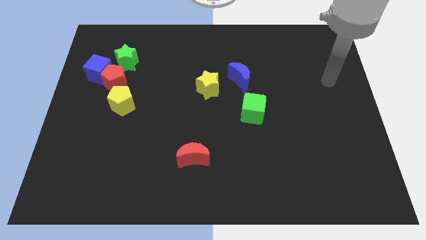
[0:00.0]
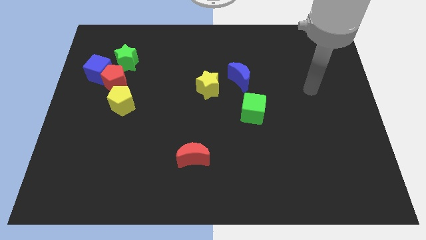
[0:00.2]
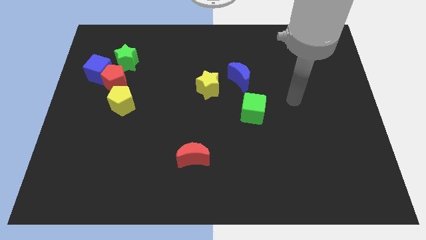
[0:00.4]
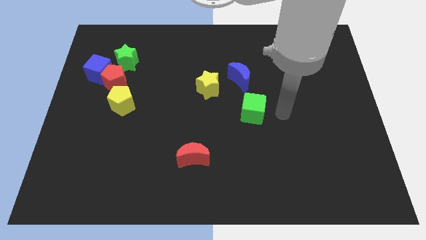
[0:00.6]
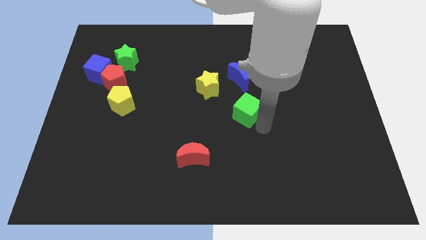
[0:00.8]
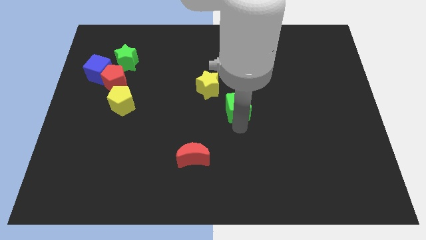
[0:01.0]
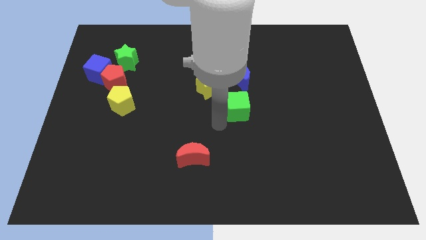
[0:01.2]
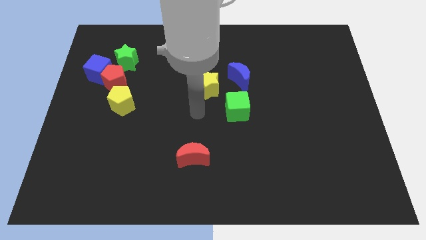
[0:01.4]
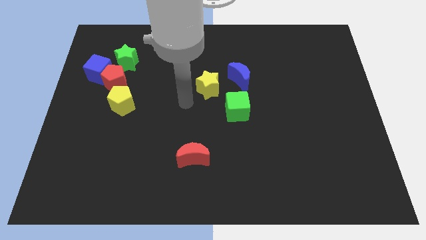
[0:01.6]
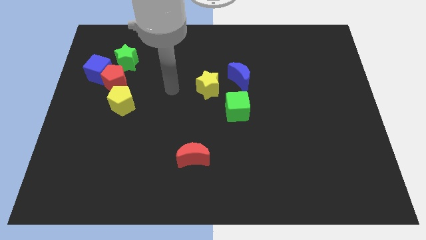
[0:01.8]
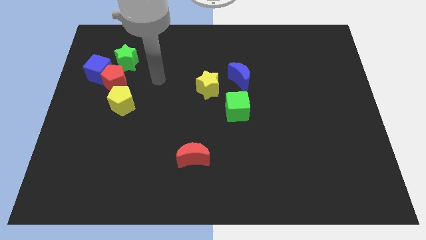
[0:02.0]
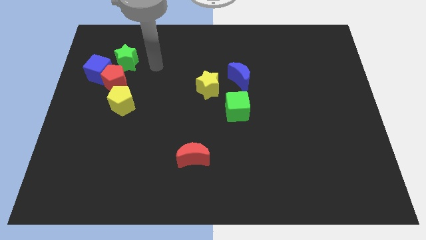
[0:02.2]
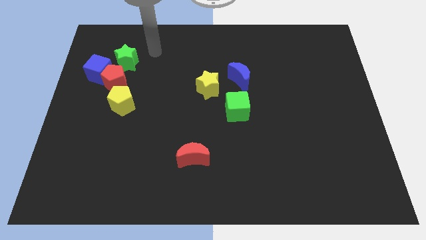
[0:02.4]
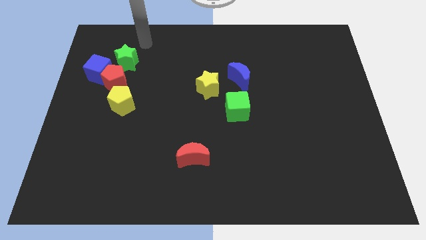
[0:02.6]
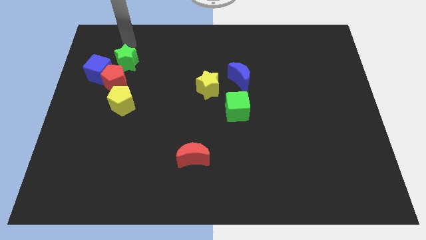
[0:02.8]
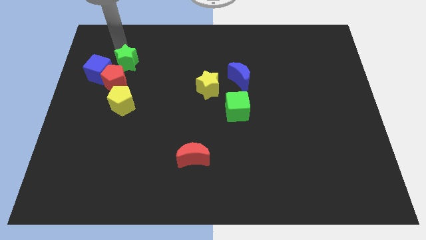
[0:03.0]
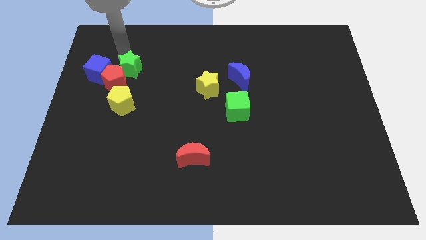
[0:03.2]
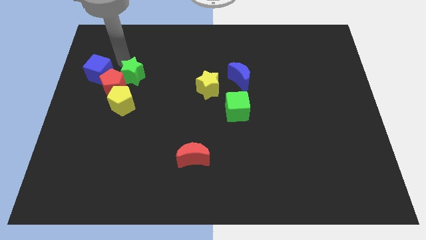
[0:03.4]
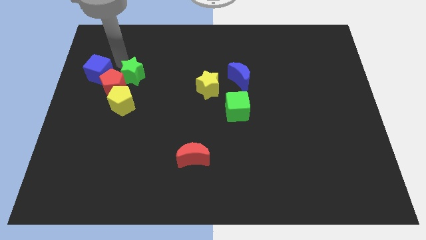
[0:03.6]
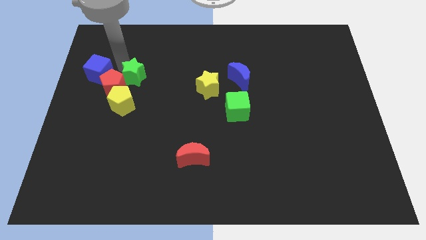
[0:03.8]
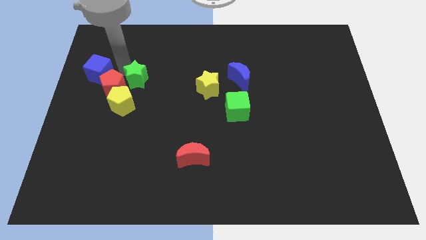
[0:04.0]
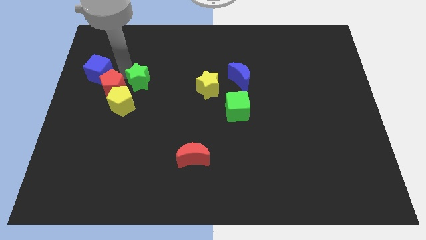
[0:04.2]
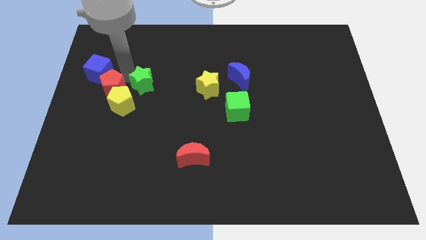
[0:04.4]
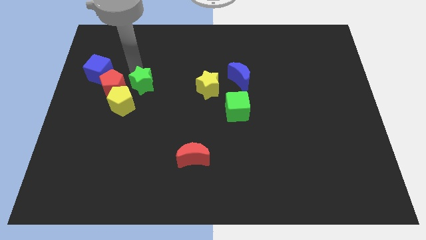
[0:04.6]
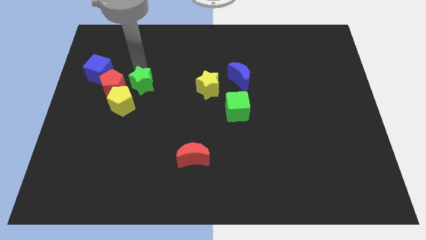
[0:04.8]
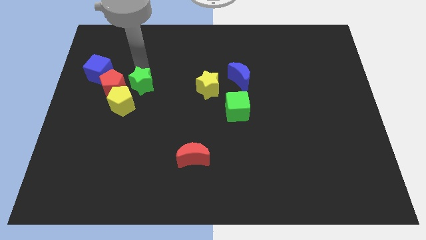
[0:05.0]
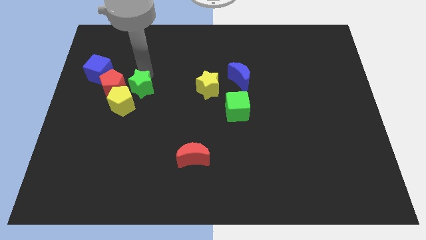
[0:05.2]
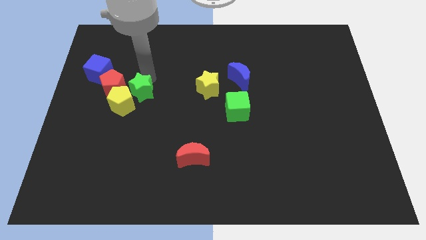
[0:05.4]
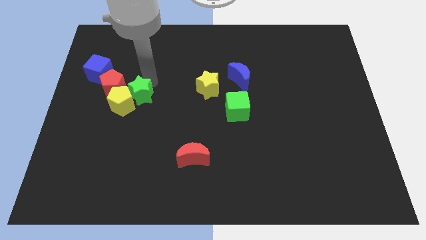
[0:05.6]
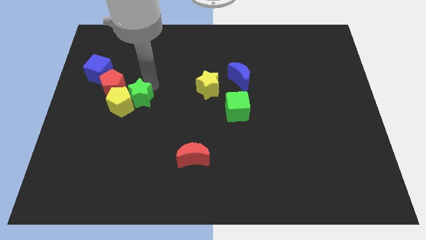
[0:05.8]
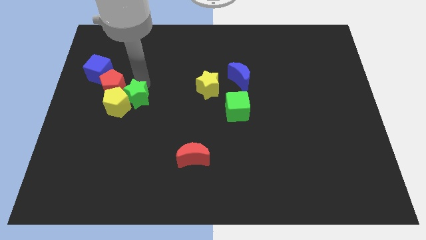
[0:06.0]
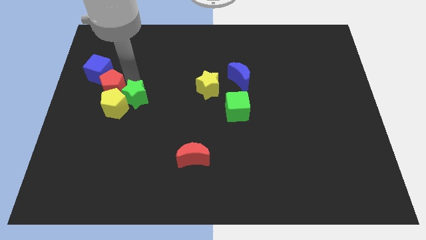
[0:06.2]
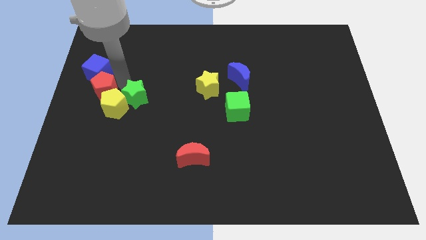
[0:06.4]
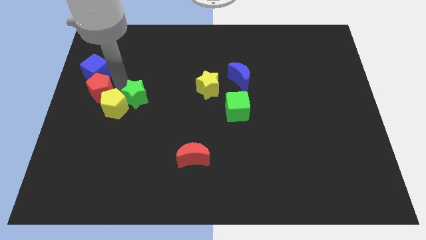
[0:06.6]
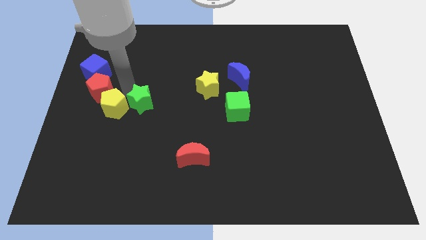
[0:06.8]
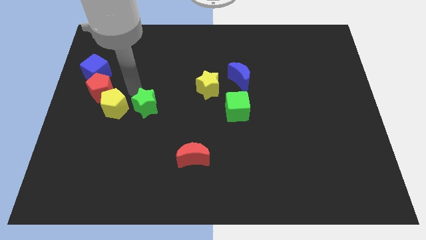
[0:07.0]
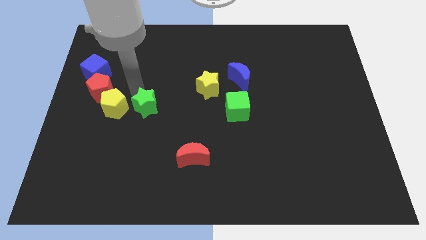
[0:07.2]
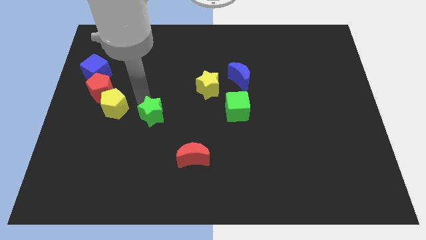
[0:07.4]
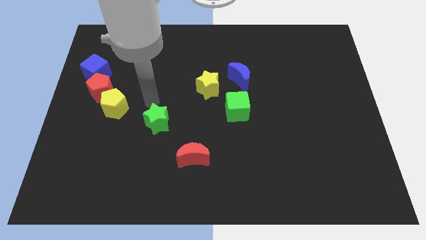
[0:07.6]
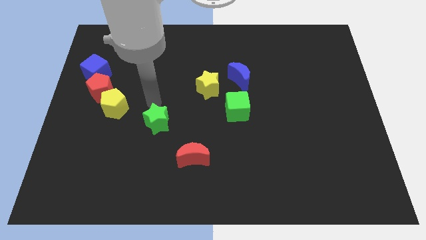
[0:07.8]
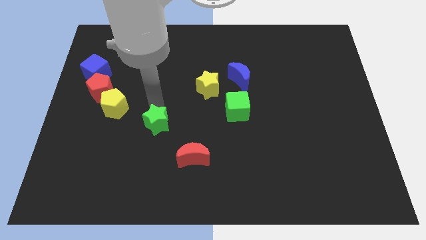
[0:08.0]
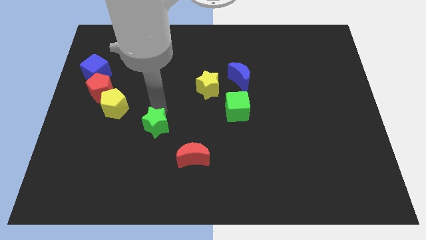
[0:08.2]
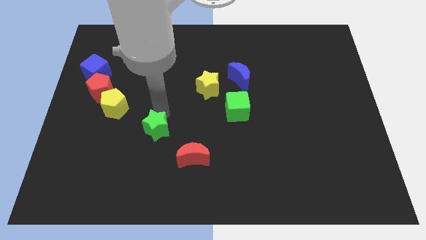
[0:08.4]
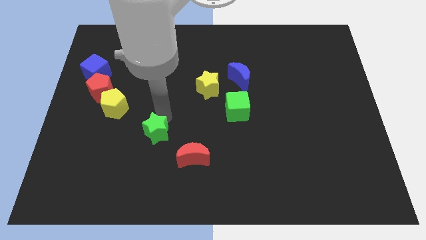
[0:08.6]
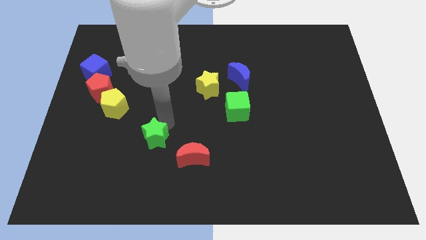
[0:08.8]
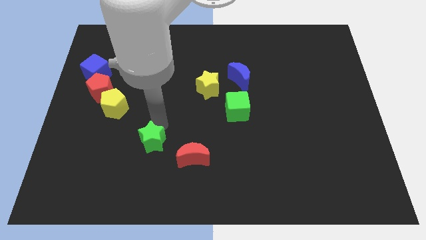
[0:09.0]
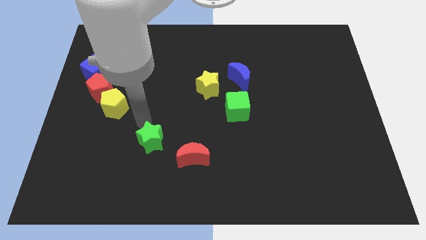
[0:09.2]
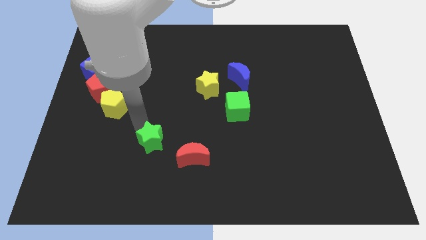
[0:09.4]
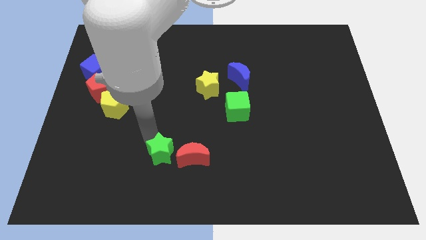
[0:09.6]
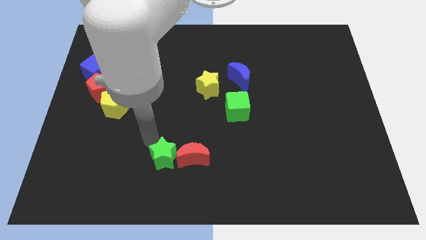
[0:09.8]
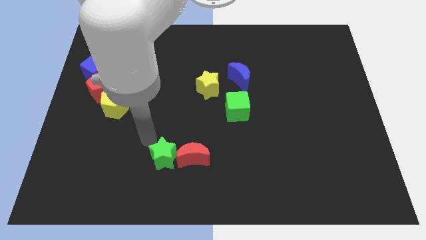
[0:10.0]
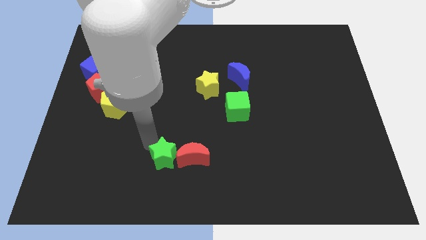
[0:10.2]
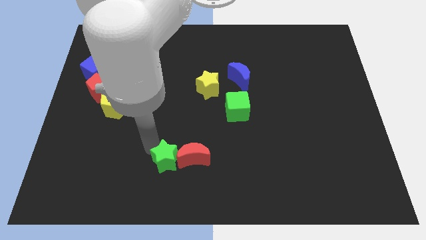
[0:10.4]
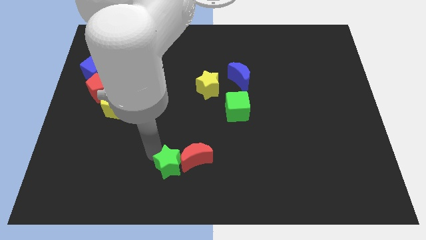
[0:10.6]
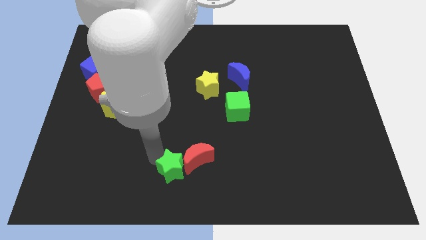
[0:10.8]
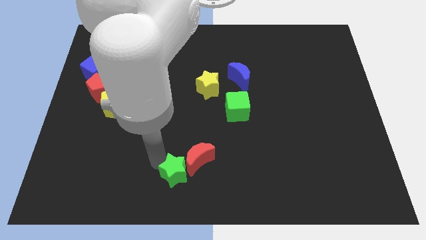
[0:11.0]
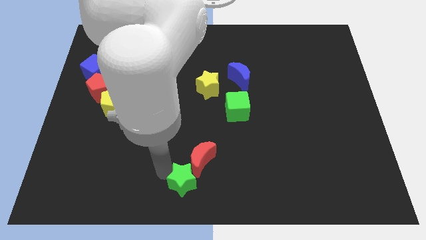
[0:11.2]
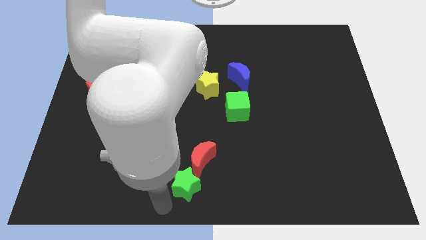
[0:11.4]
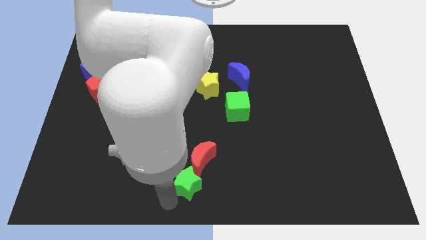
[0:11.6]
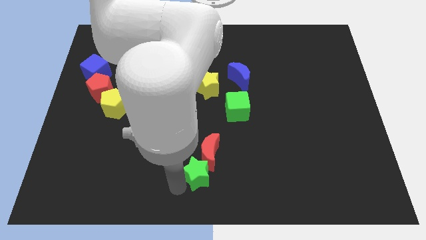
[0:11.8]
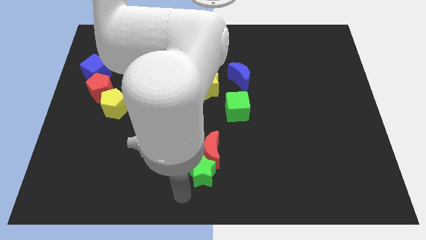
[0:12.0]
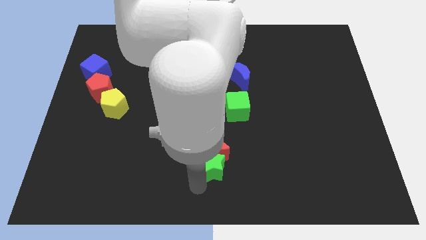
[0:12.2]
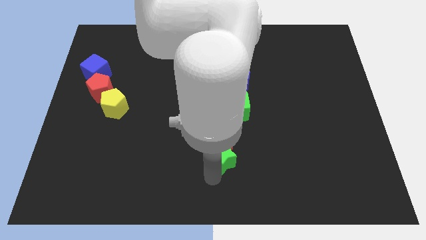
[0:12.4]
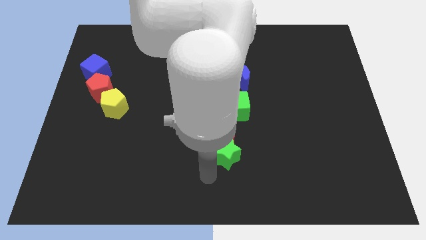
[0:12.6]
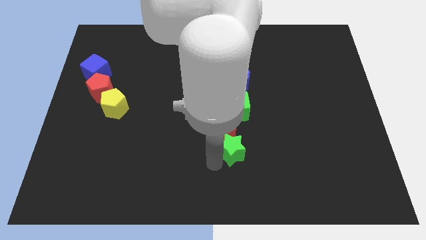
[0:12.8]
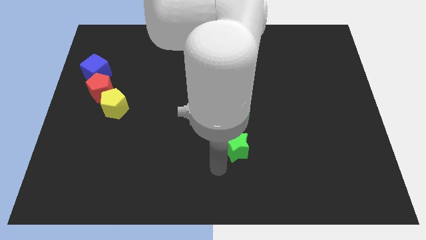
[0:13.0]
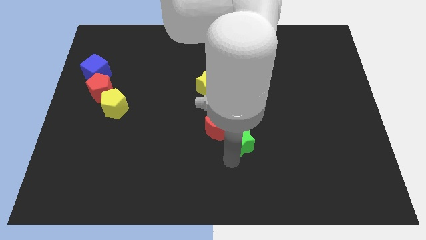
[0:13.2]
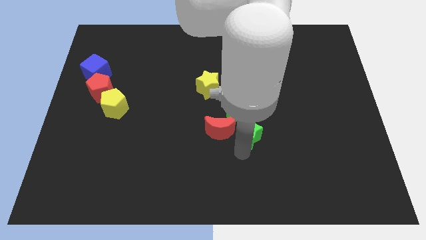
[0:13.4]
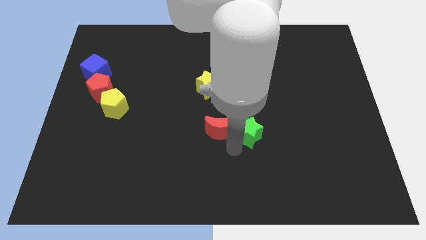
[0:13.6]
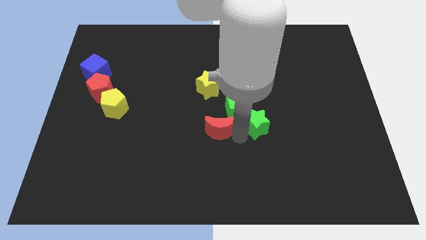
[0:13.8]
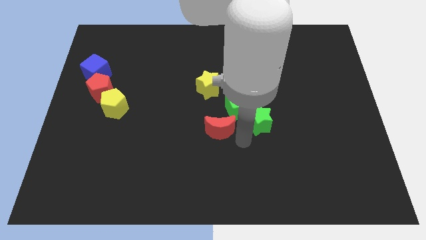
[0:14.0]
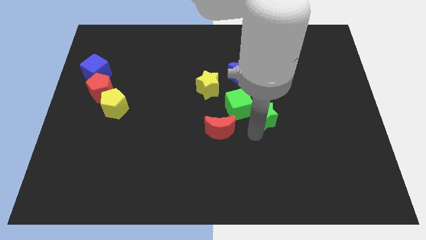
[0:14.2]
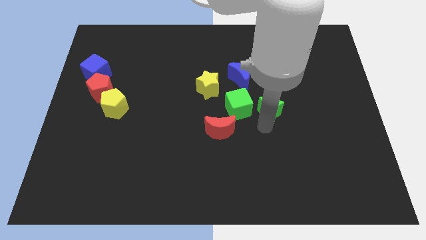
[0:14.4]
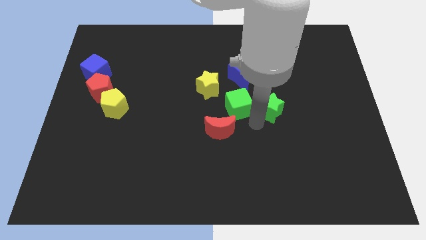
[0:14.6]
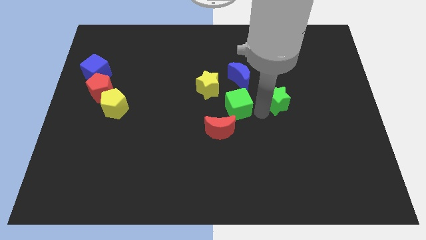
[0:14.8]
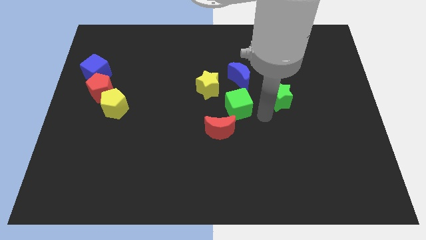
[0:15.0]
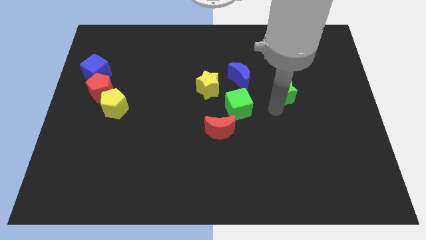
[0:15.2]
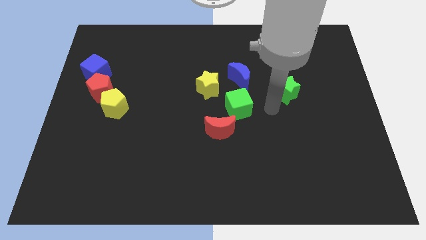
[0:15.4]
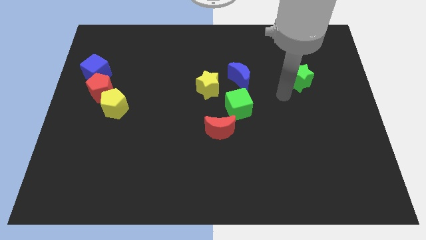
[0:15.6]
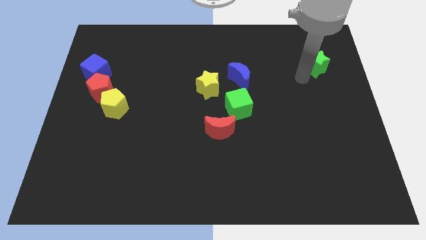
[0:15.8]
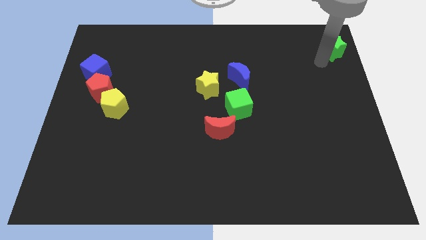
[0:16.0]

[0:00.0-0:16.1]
move the green star to the top right corner

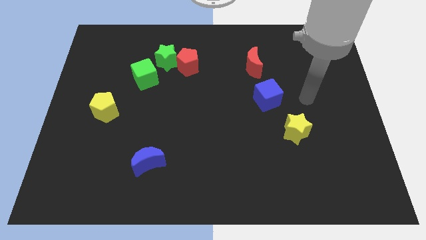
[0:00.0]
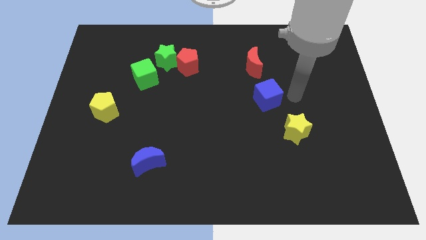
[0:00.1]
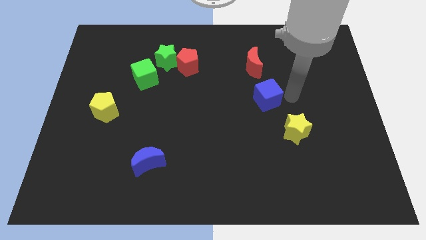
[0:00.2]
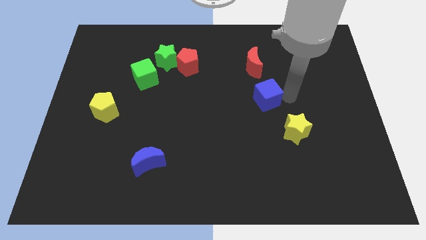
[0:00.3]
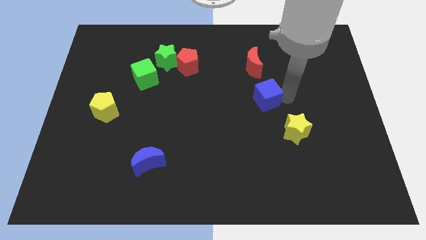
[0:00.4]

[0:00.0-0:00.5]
slide the blue cube to the middle
